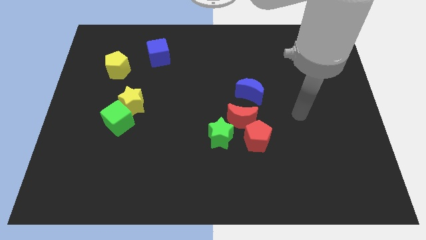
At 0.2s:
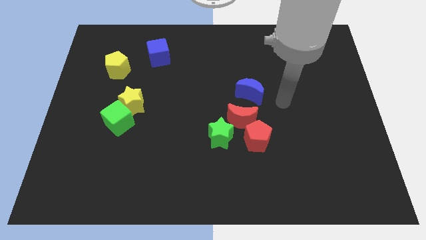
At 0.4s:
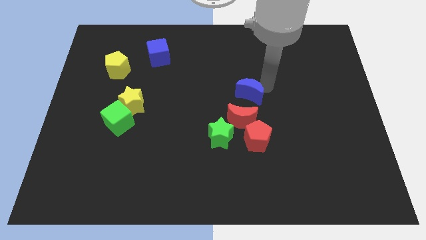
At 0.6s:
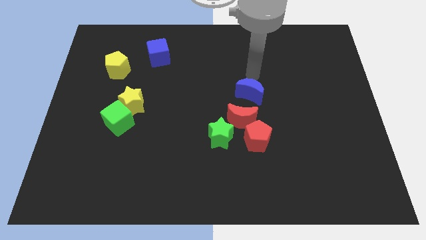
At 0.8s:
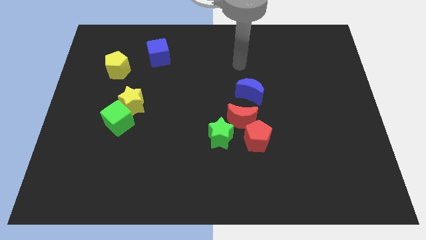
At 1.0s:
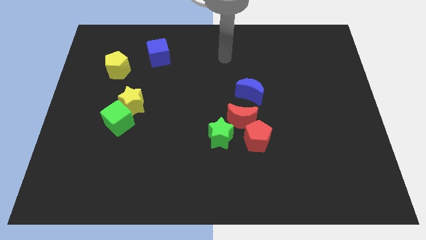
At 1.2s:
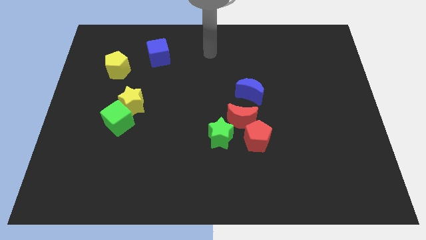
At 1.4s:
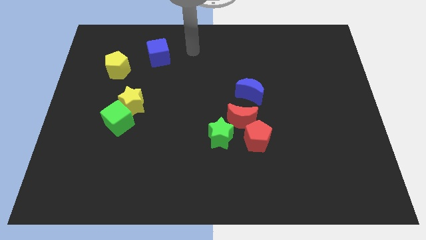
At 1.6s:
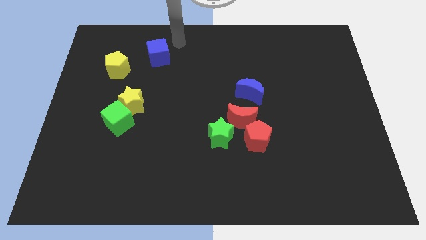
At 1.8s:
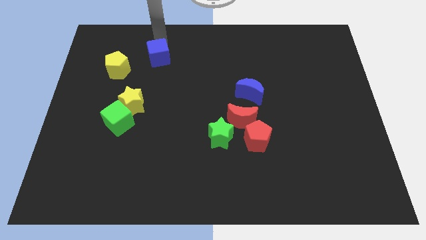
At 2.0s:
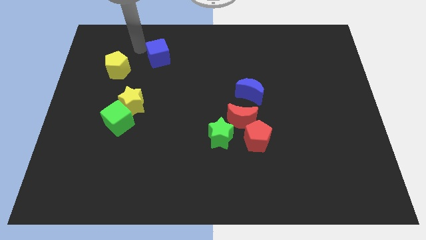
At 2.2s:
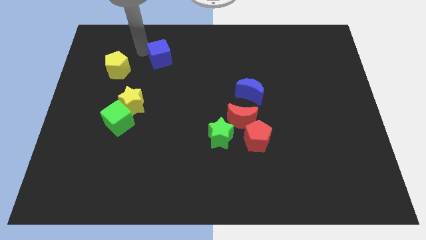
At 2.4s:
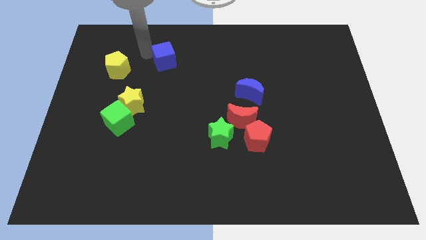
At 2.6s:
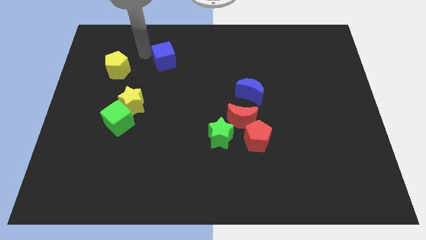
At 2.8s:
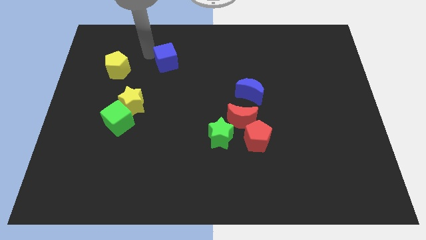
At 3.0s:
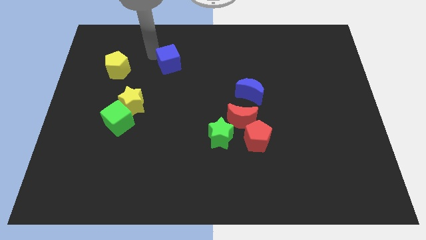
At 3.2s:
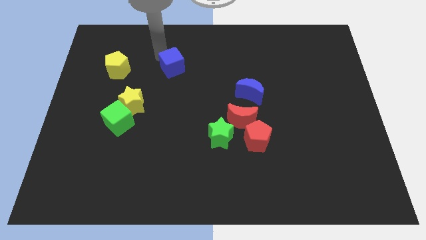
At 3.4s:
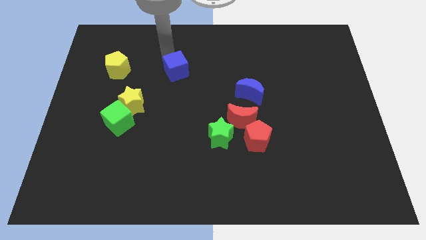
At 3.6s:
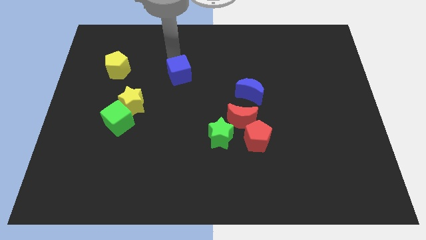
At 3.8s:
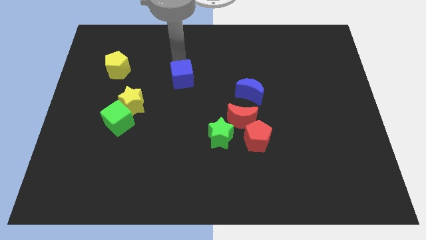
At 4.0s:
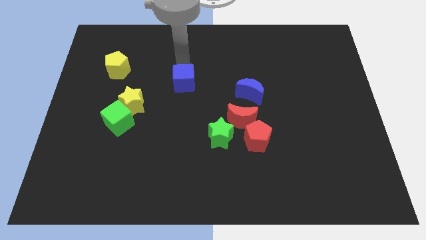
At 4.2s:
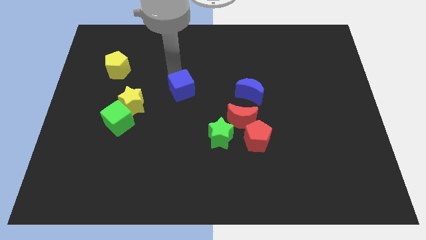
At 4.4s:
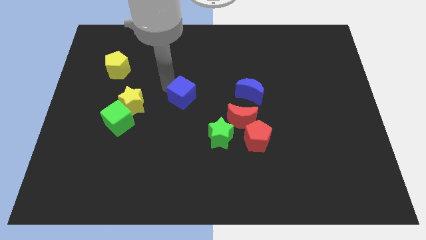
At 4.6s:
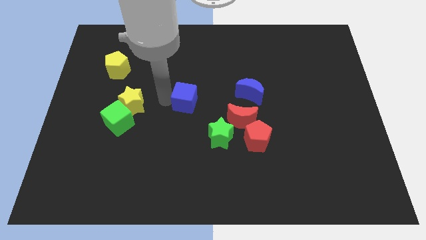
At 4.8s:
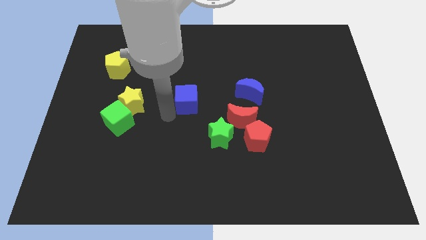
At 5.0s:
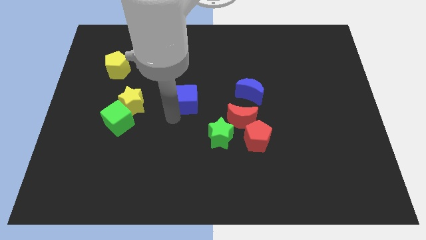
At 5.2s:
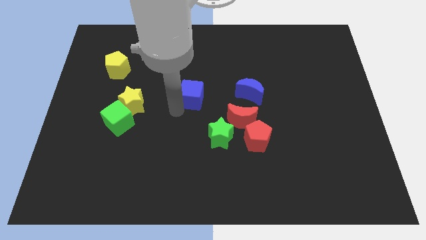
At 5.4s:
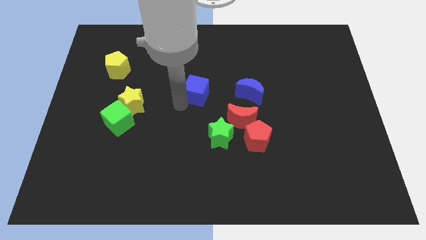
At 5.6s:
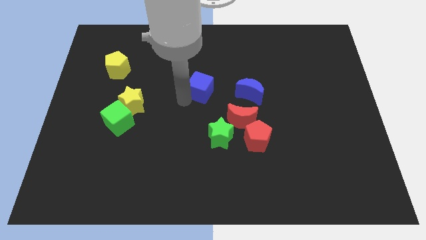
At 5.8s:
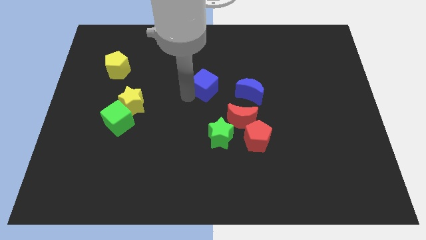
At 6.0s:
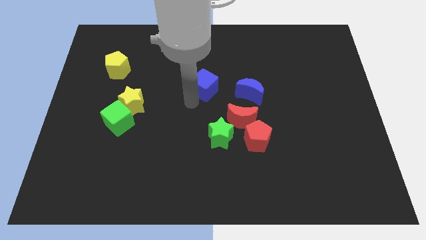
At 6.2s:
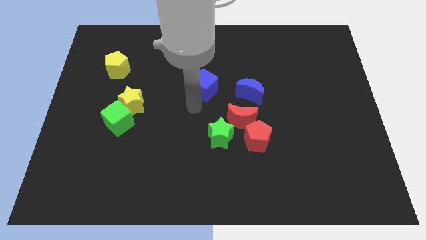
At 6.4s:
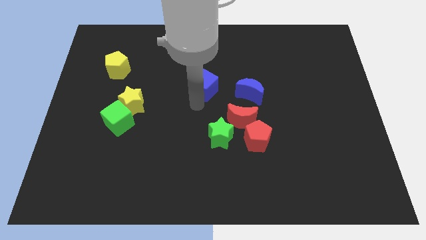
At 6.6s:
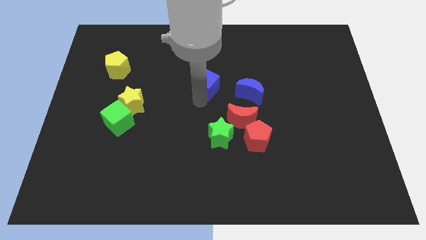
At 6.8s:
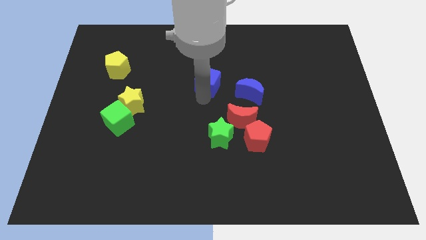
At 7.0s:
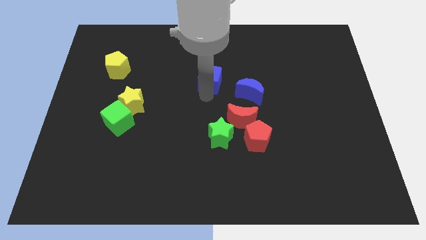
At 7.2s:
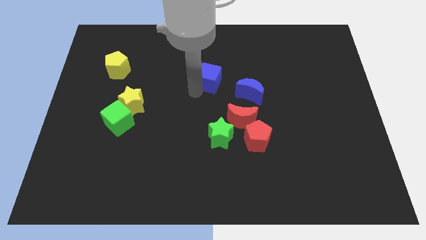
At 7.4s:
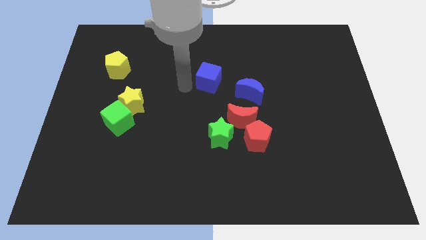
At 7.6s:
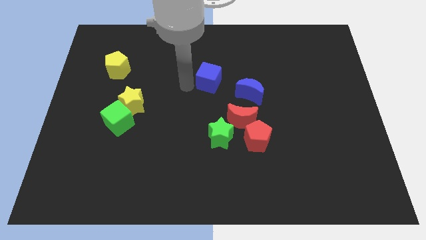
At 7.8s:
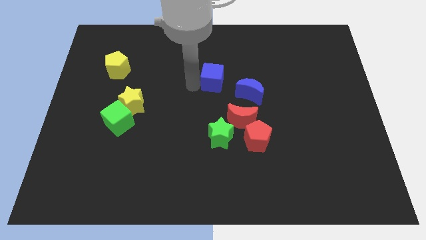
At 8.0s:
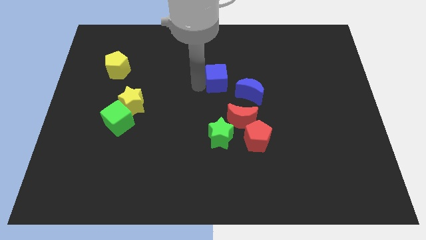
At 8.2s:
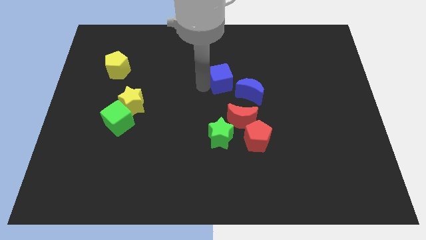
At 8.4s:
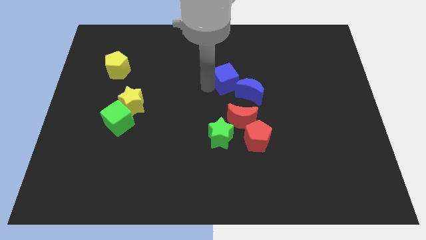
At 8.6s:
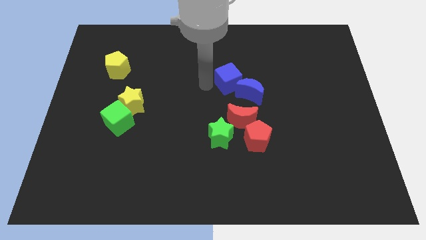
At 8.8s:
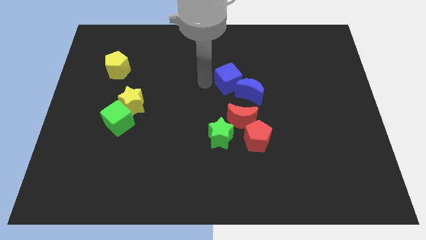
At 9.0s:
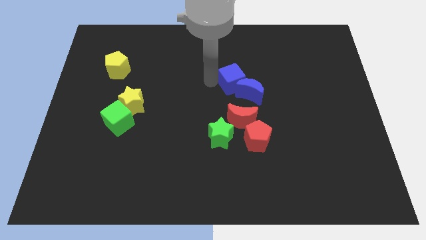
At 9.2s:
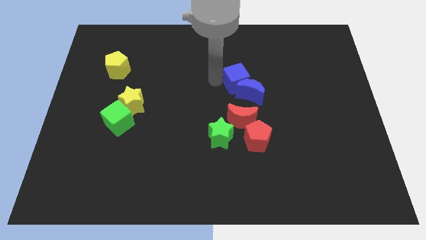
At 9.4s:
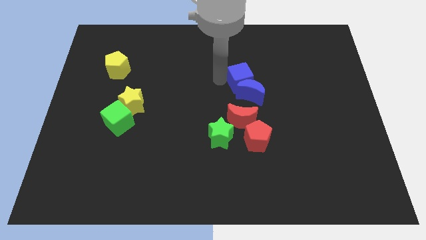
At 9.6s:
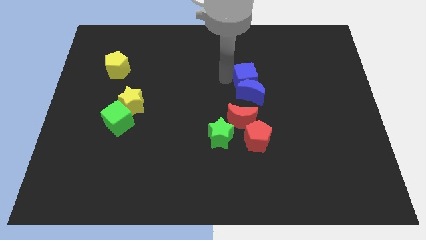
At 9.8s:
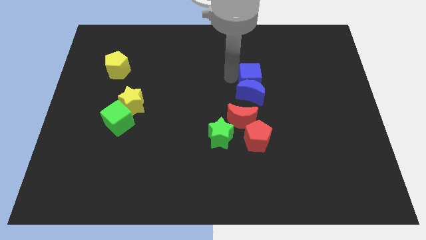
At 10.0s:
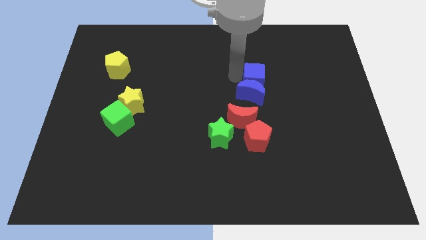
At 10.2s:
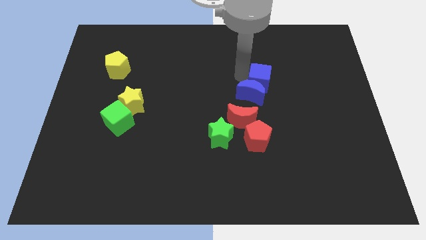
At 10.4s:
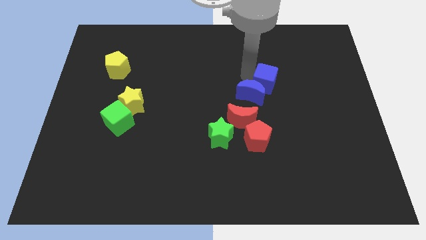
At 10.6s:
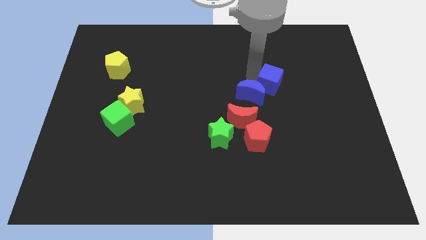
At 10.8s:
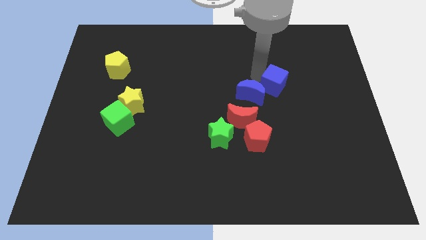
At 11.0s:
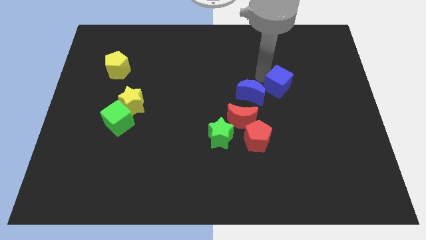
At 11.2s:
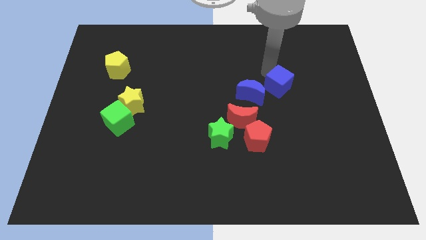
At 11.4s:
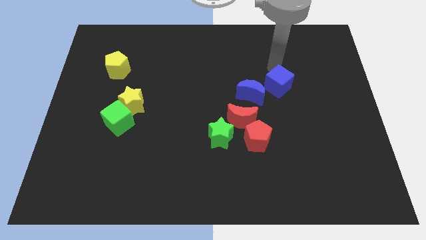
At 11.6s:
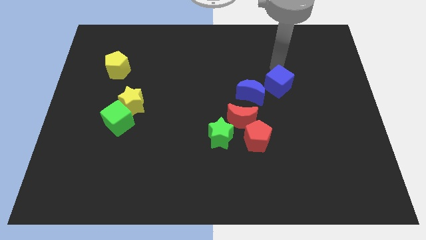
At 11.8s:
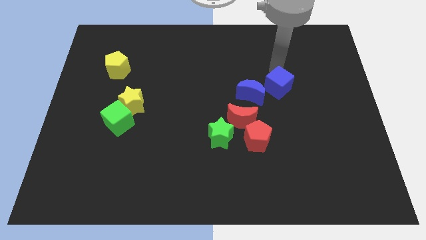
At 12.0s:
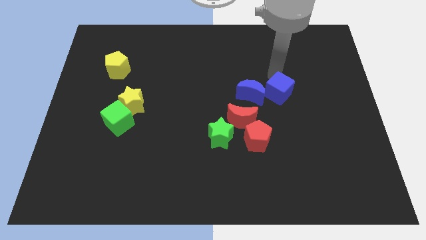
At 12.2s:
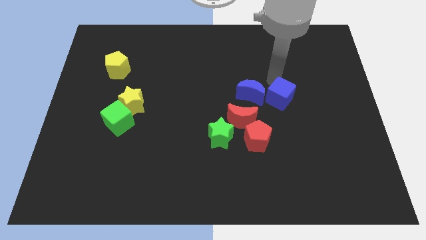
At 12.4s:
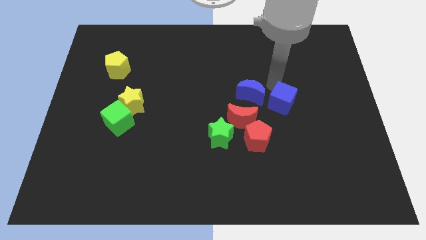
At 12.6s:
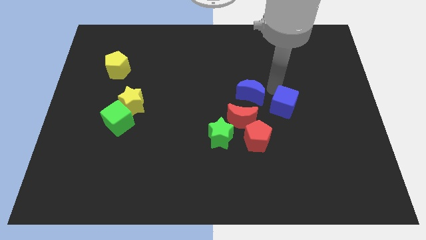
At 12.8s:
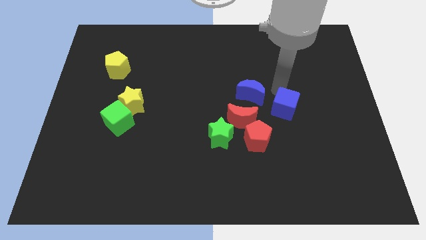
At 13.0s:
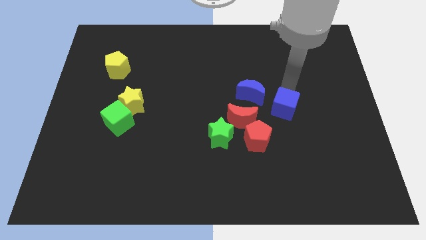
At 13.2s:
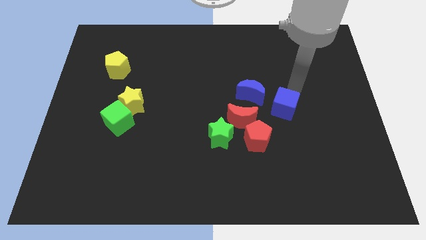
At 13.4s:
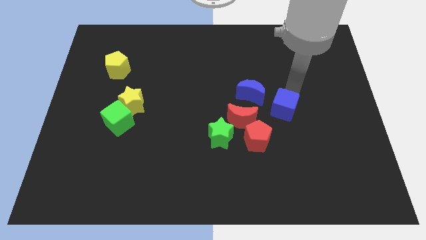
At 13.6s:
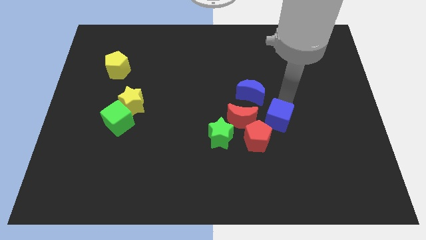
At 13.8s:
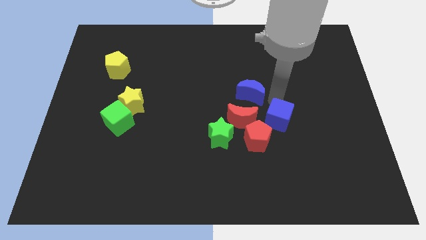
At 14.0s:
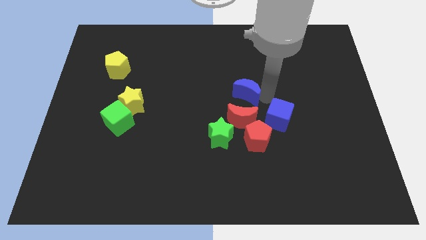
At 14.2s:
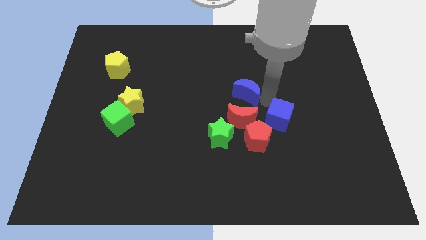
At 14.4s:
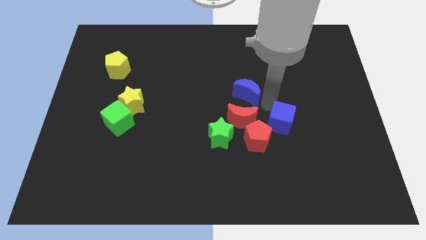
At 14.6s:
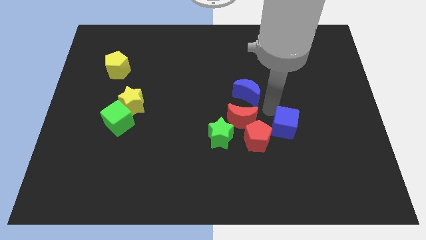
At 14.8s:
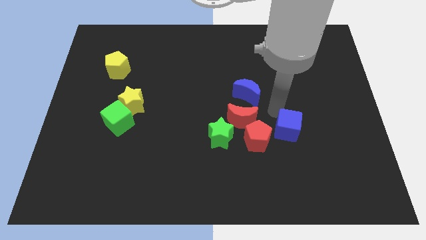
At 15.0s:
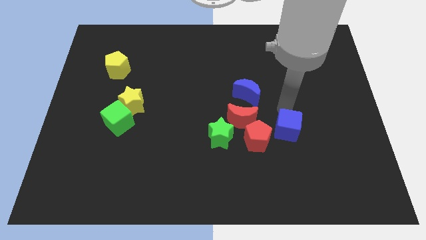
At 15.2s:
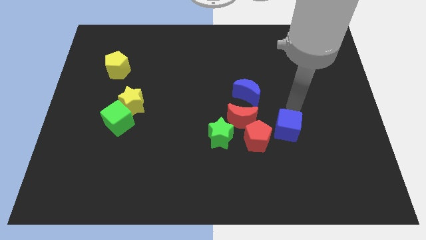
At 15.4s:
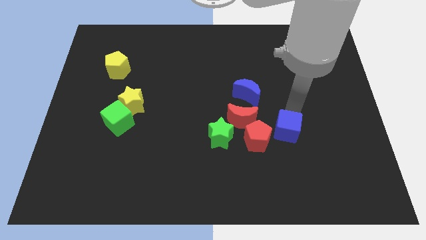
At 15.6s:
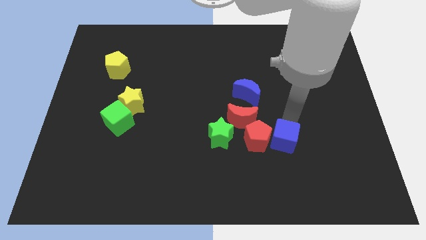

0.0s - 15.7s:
move the blue cube diagonally down and to the right of the red pentagon
